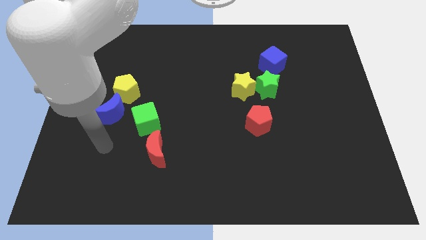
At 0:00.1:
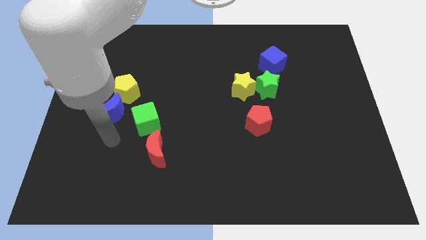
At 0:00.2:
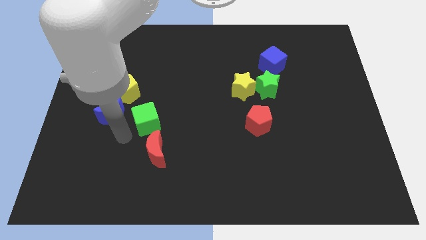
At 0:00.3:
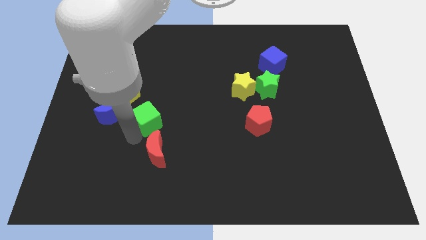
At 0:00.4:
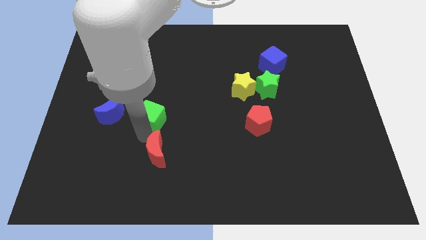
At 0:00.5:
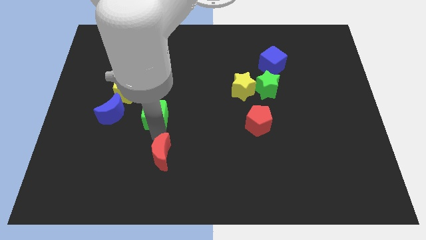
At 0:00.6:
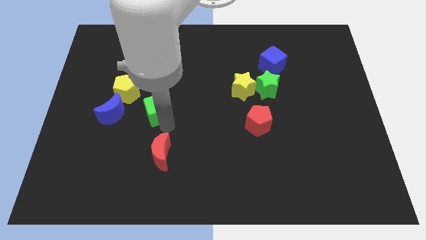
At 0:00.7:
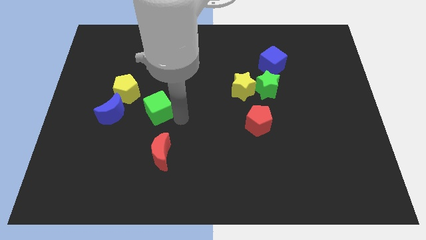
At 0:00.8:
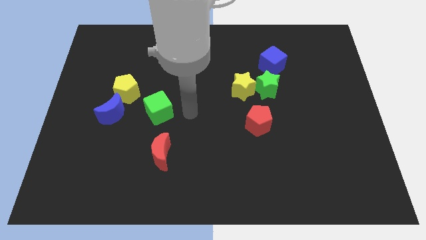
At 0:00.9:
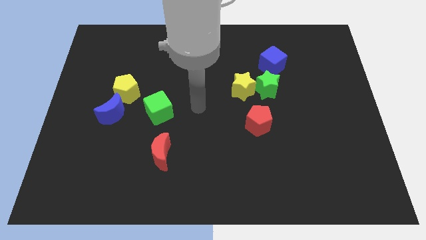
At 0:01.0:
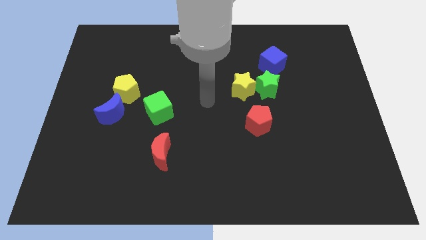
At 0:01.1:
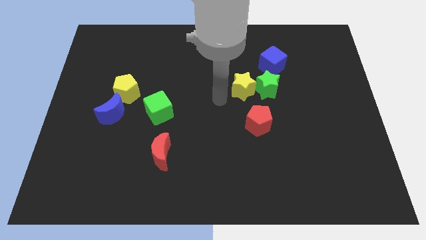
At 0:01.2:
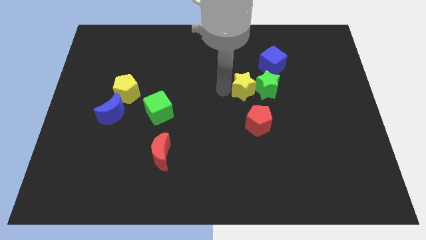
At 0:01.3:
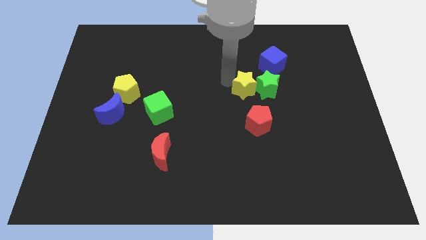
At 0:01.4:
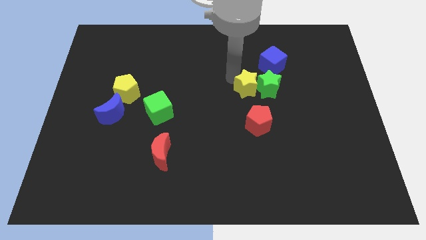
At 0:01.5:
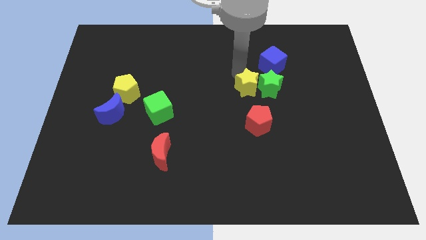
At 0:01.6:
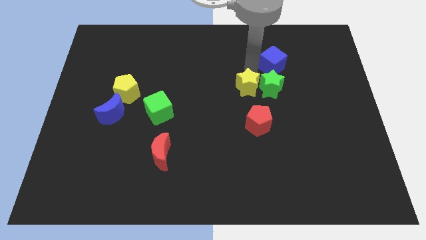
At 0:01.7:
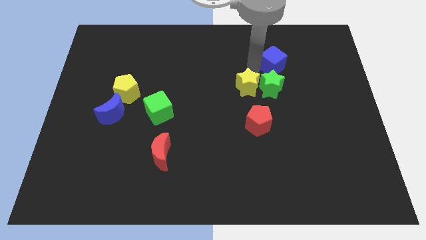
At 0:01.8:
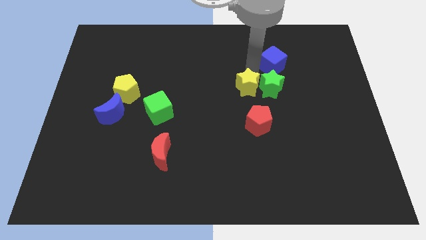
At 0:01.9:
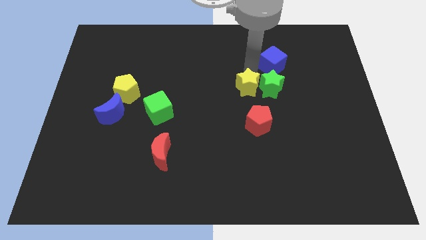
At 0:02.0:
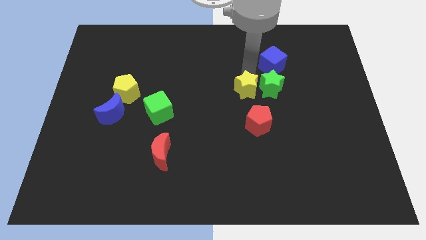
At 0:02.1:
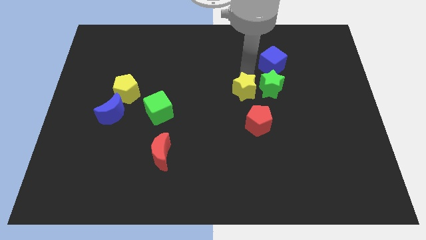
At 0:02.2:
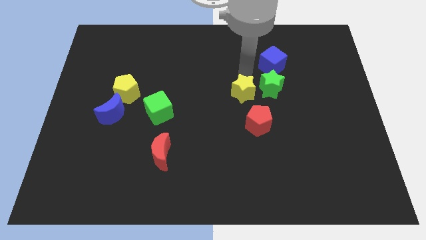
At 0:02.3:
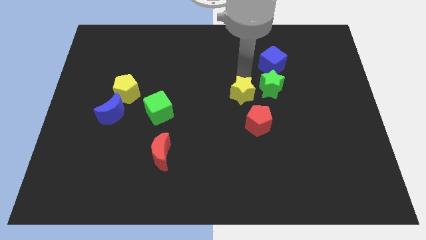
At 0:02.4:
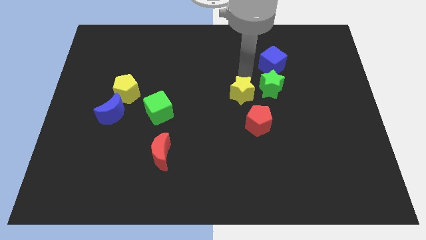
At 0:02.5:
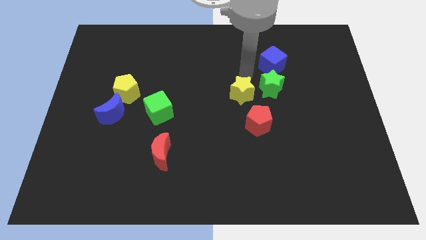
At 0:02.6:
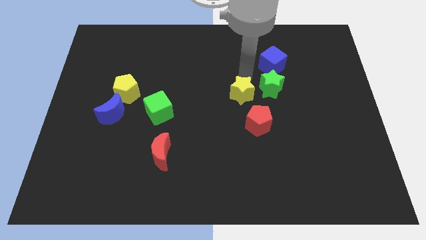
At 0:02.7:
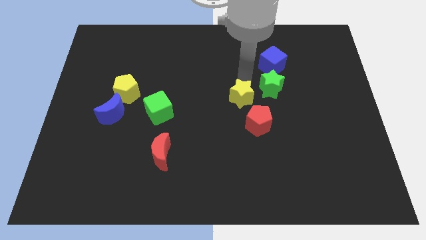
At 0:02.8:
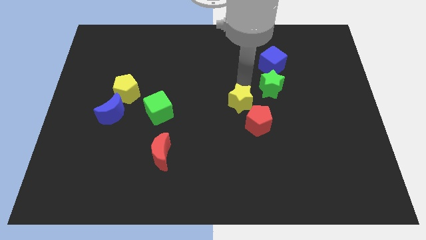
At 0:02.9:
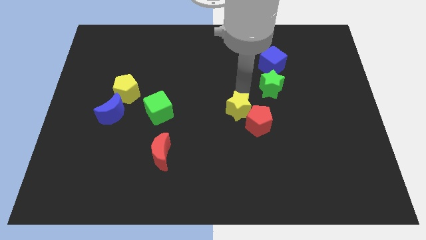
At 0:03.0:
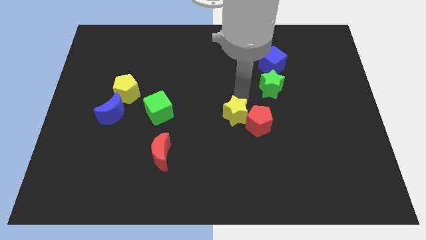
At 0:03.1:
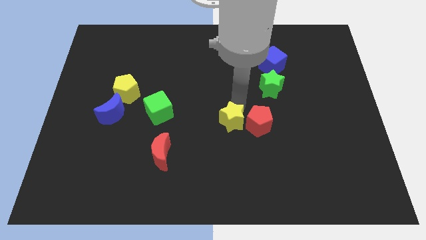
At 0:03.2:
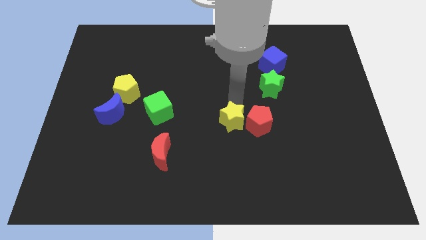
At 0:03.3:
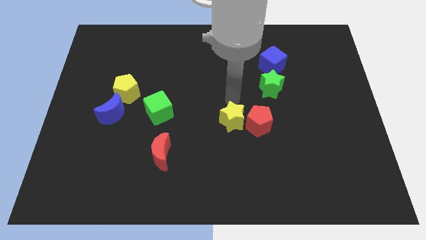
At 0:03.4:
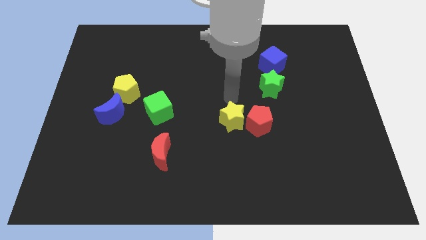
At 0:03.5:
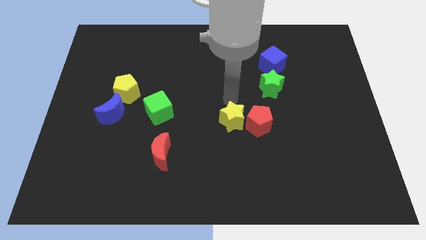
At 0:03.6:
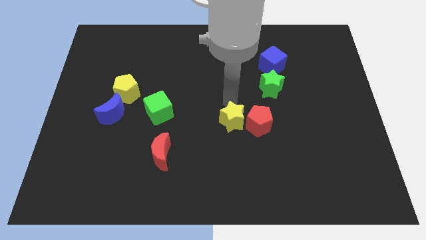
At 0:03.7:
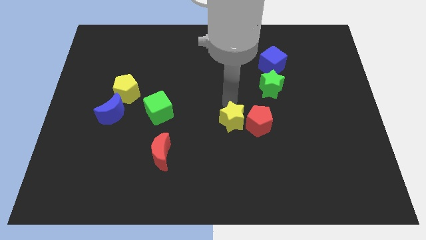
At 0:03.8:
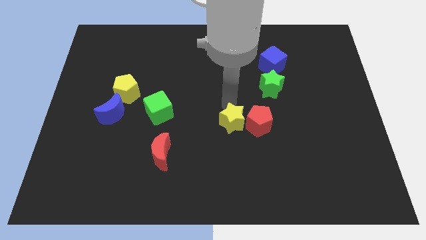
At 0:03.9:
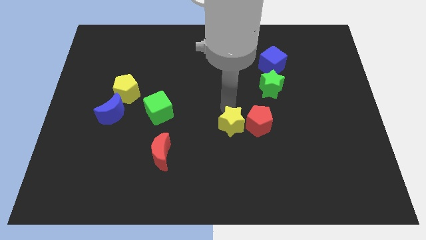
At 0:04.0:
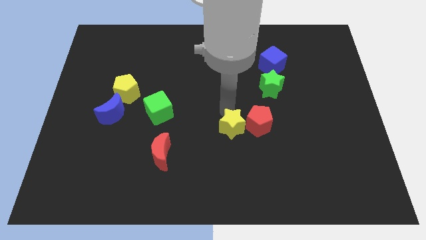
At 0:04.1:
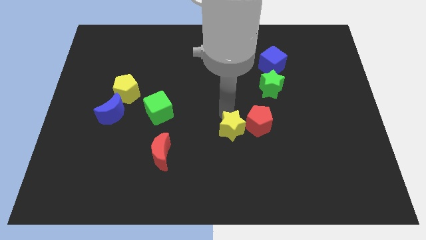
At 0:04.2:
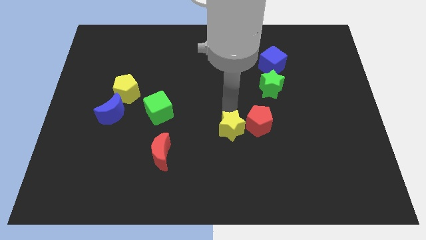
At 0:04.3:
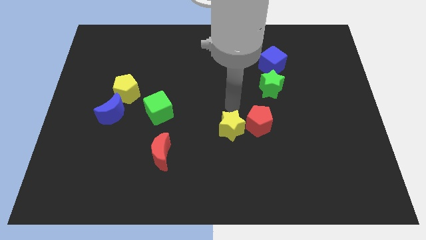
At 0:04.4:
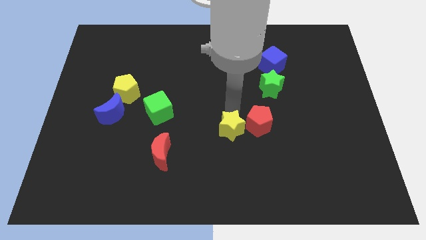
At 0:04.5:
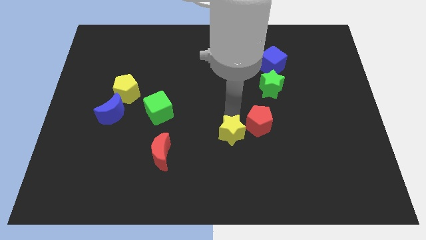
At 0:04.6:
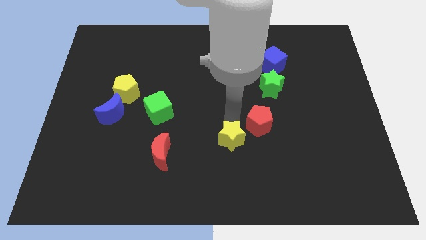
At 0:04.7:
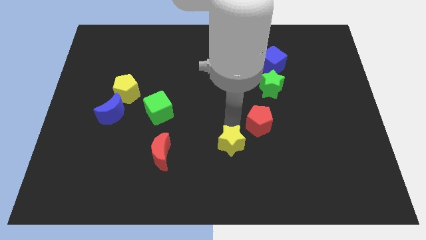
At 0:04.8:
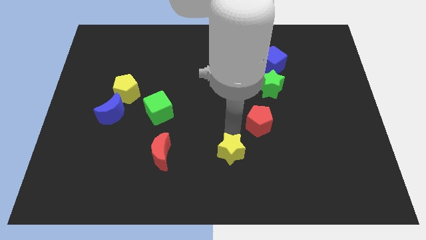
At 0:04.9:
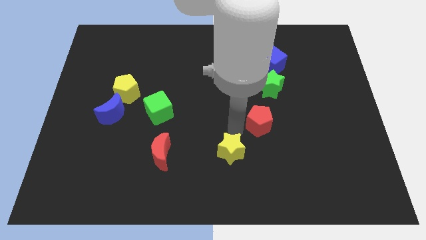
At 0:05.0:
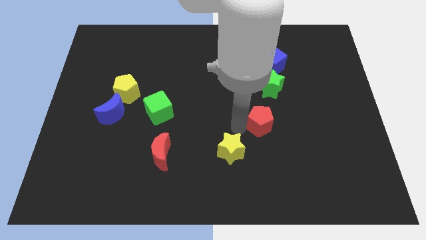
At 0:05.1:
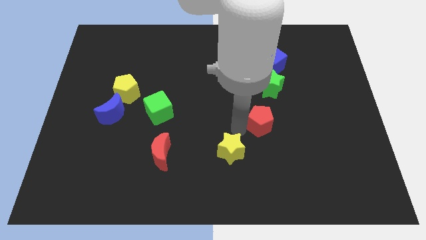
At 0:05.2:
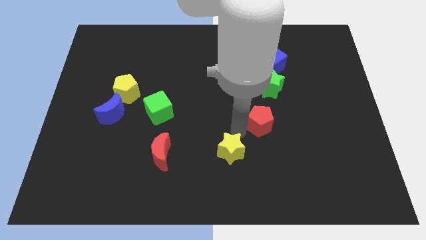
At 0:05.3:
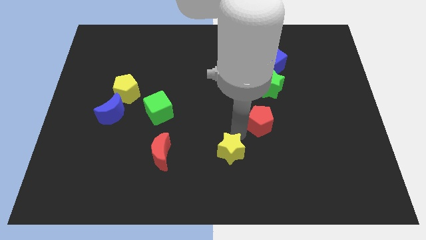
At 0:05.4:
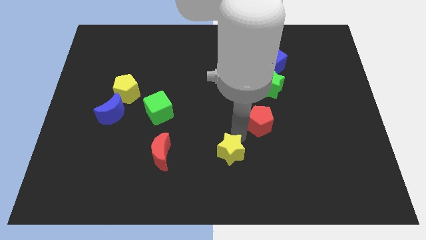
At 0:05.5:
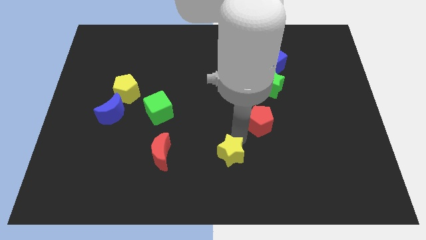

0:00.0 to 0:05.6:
move the yellow star to the bottom side
